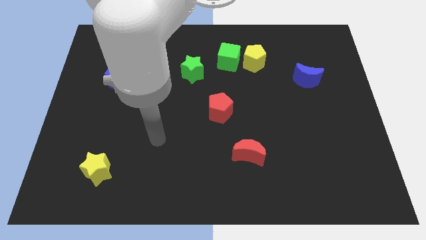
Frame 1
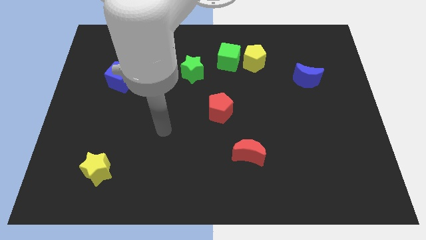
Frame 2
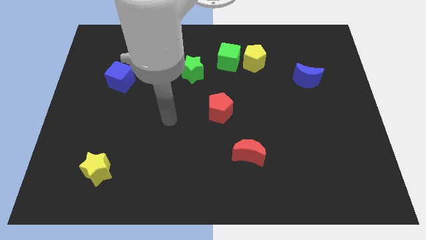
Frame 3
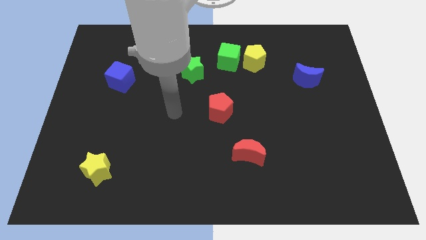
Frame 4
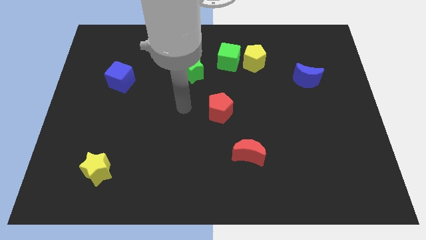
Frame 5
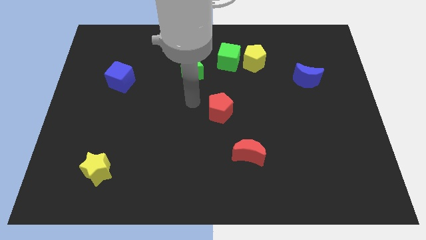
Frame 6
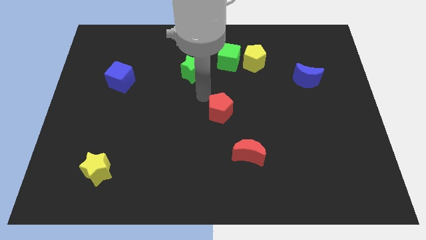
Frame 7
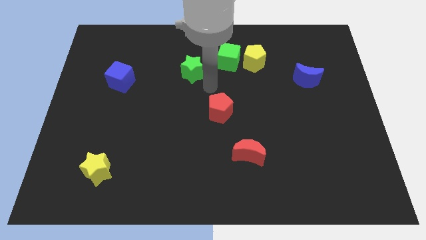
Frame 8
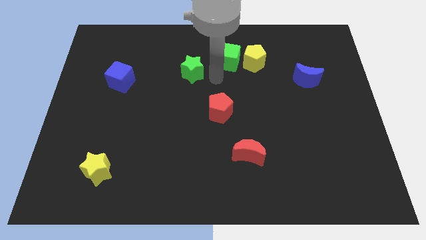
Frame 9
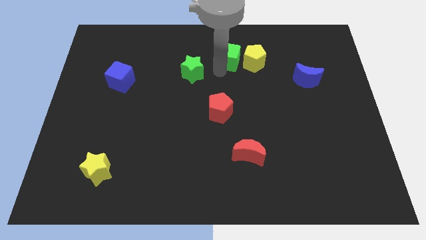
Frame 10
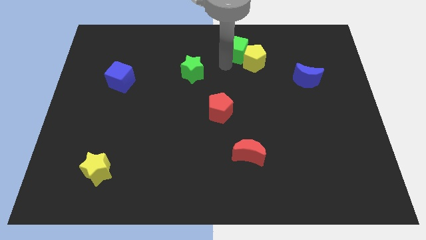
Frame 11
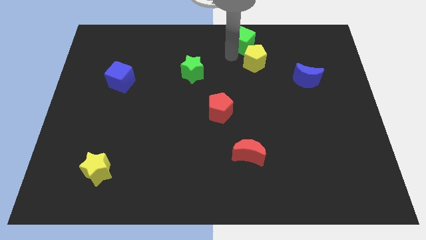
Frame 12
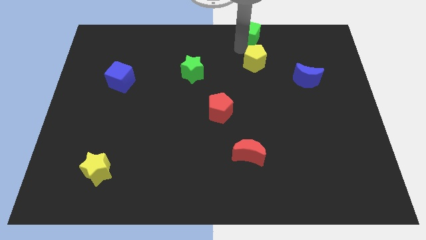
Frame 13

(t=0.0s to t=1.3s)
pull the yellow pentagon apart from the green cube

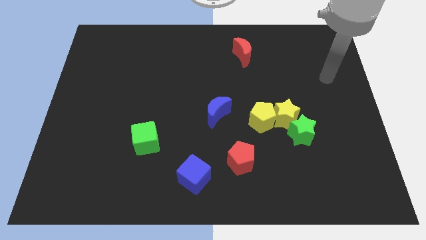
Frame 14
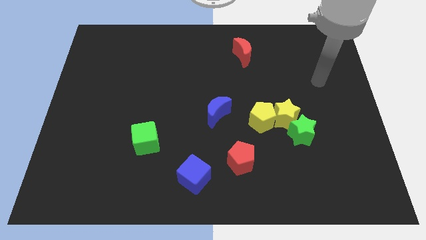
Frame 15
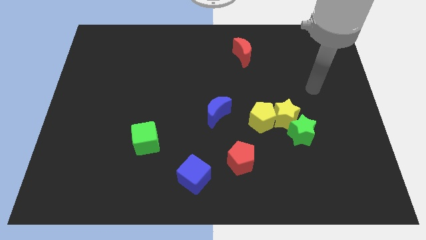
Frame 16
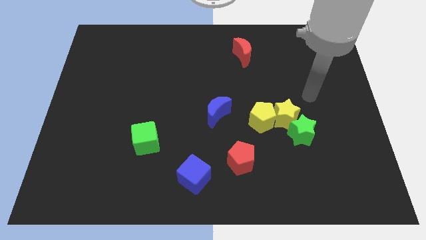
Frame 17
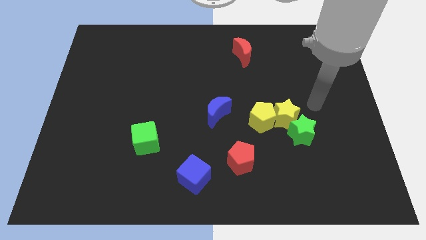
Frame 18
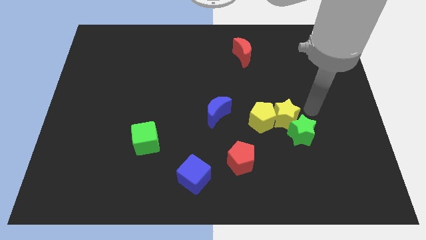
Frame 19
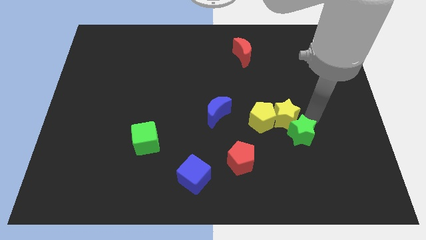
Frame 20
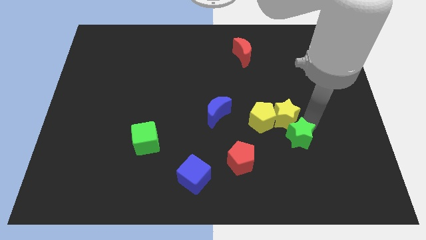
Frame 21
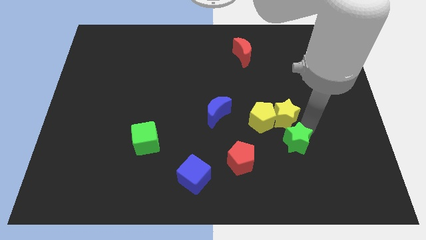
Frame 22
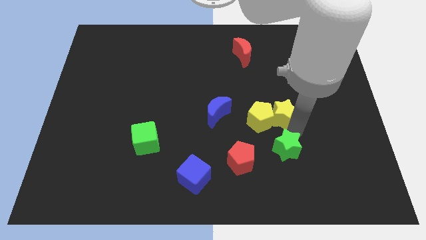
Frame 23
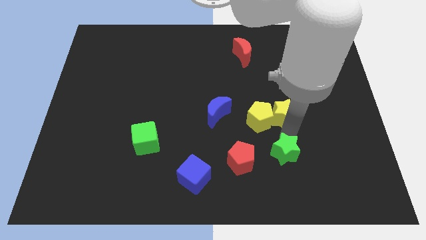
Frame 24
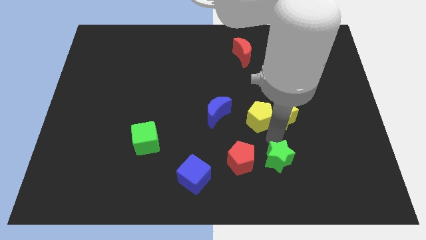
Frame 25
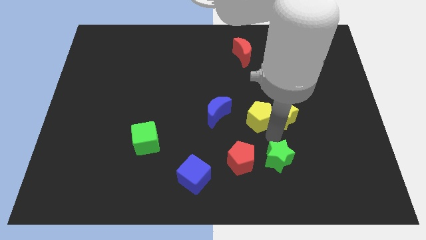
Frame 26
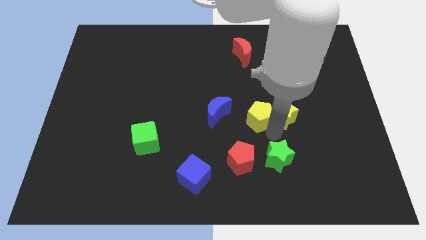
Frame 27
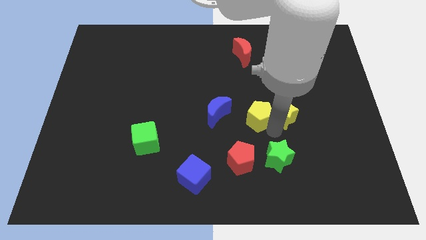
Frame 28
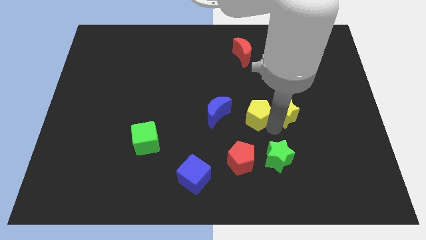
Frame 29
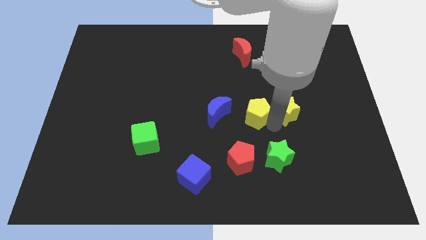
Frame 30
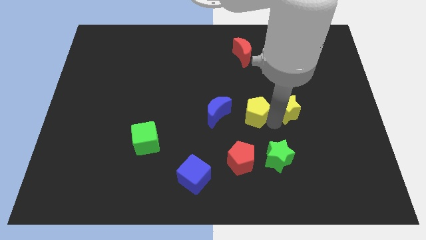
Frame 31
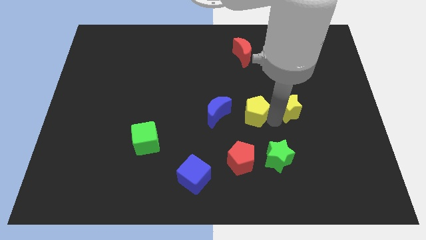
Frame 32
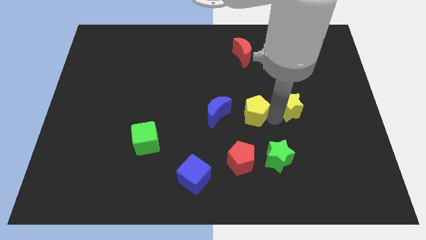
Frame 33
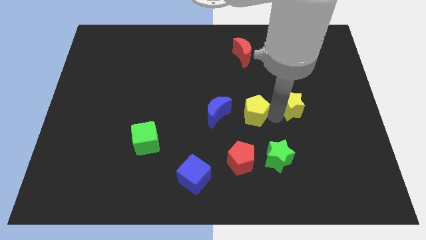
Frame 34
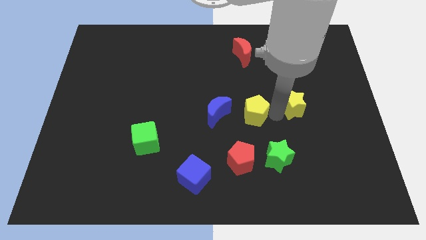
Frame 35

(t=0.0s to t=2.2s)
separate the yellow star from the green star and yellow pentagon

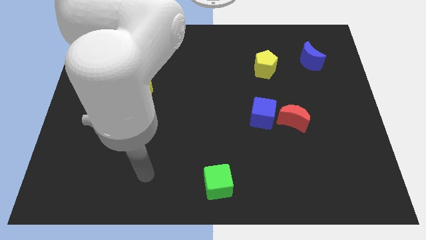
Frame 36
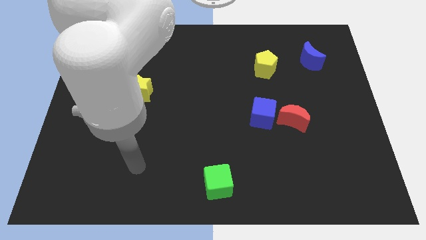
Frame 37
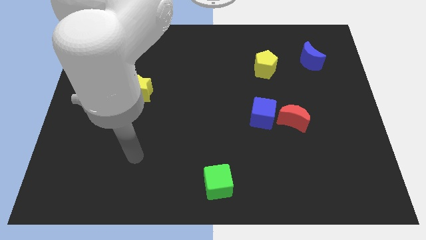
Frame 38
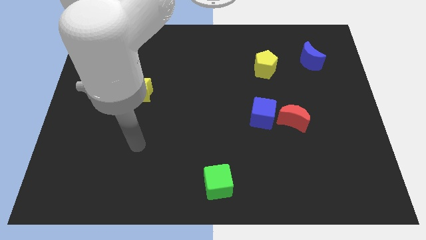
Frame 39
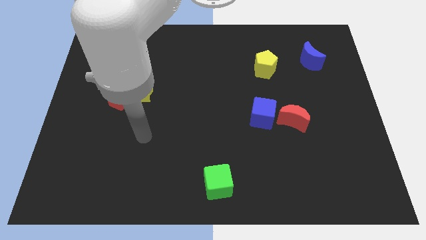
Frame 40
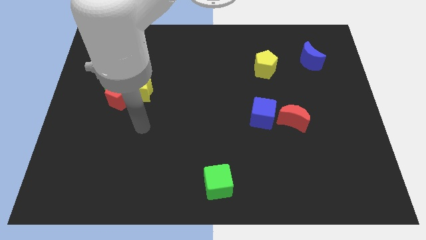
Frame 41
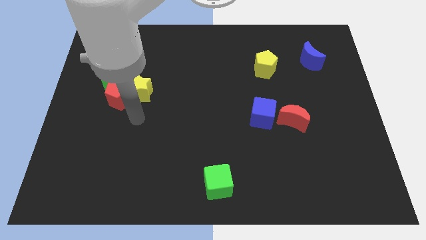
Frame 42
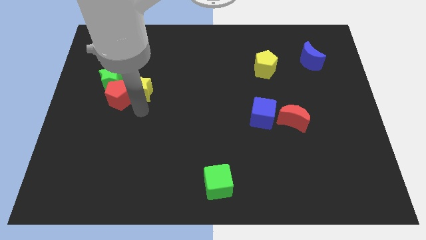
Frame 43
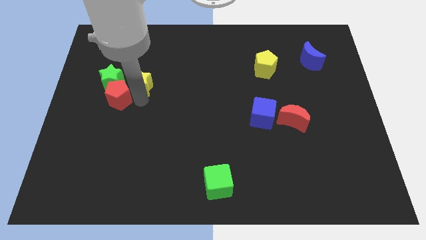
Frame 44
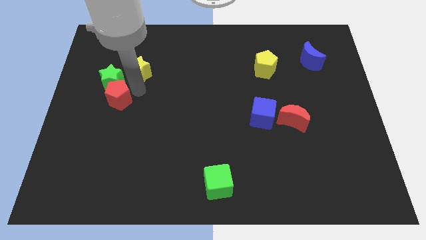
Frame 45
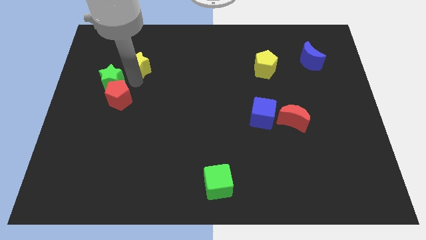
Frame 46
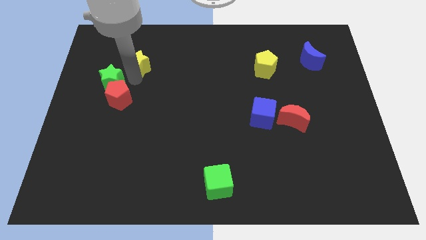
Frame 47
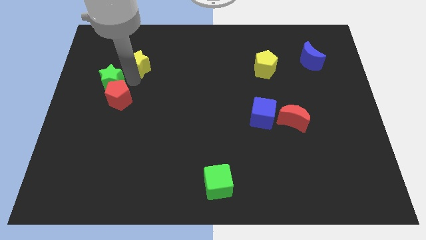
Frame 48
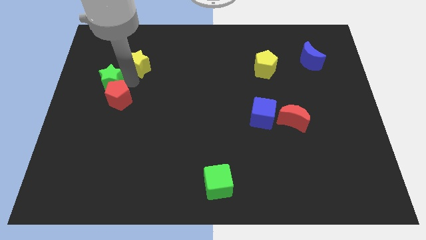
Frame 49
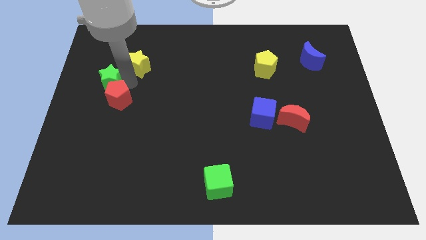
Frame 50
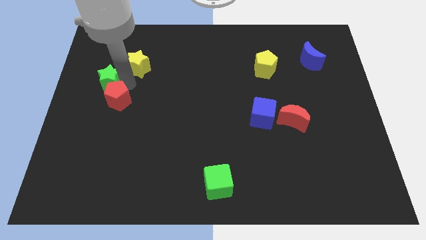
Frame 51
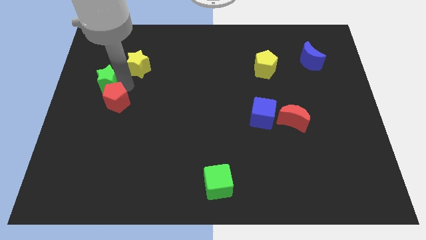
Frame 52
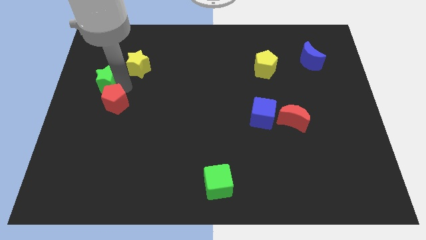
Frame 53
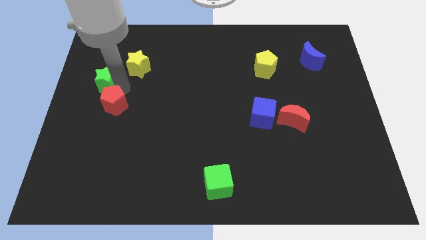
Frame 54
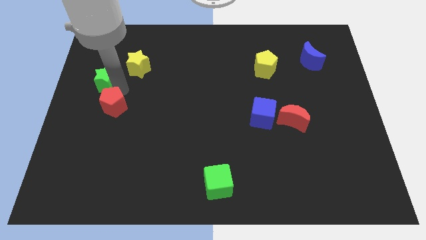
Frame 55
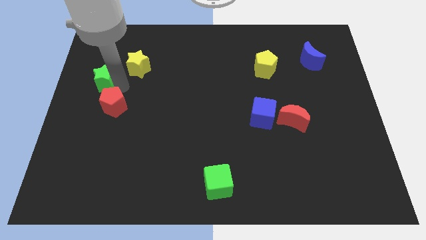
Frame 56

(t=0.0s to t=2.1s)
pull the red pentagon apart from the yellow star and green star

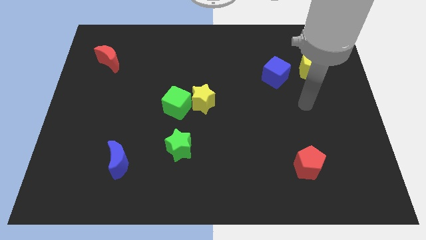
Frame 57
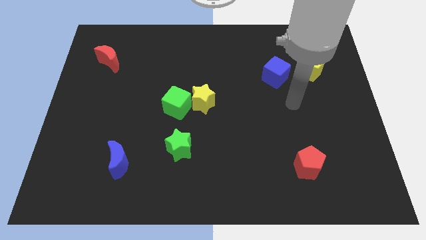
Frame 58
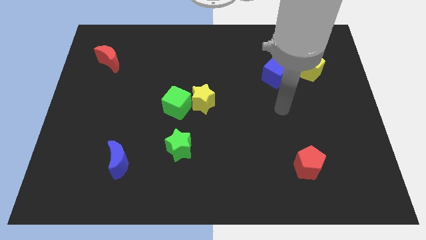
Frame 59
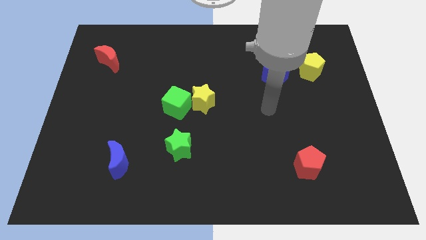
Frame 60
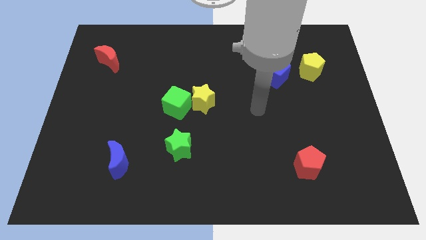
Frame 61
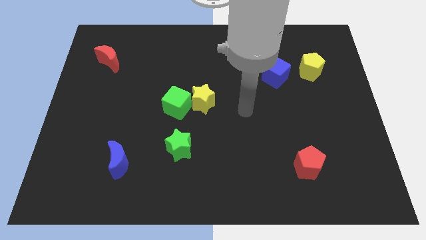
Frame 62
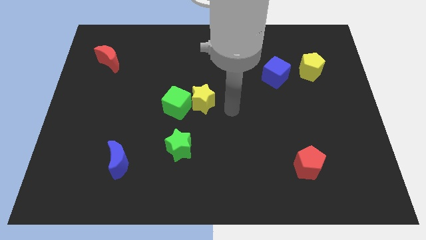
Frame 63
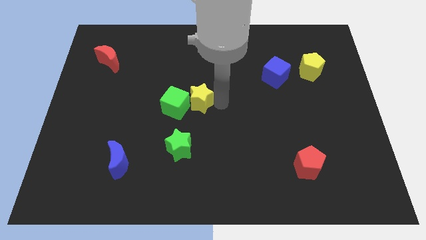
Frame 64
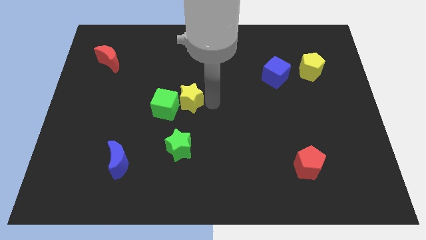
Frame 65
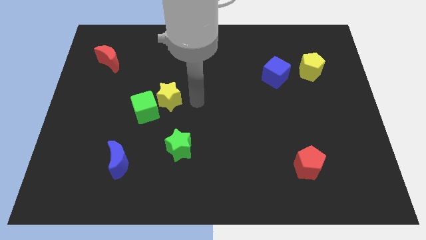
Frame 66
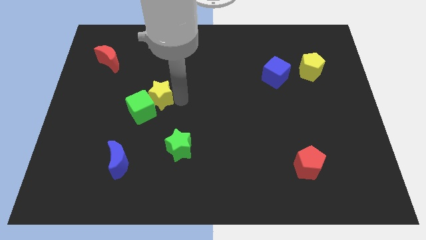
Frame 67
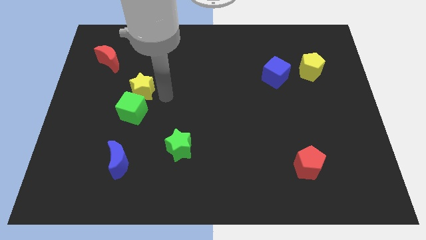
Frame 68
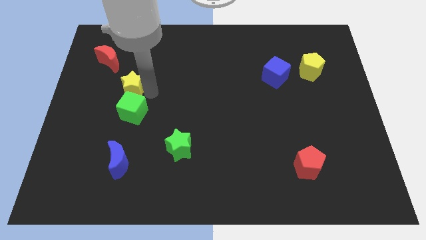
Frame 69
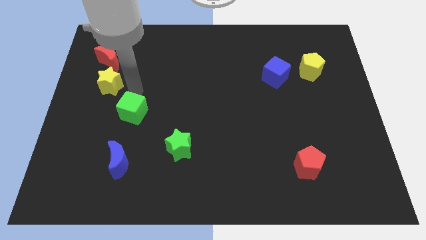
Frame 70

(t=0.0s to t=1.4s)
move the green cube away from the yellow star

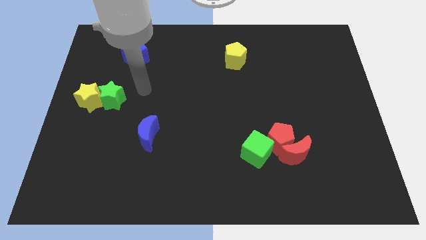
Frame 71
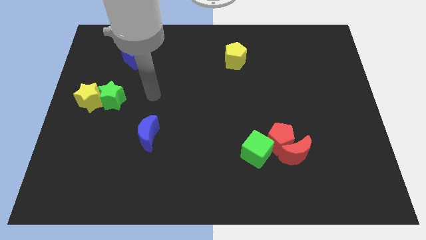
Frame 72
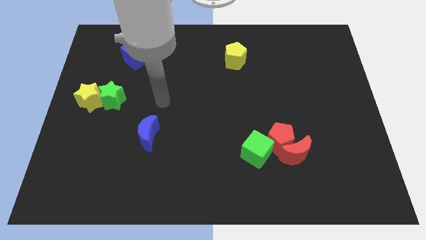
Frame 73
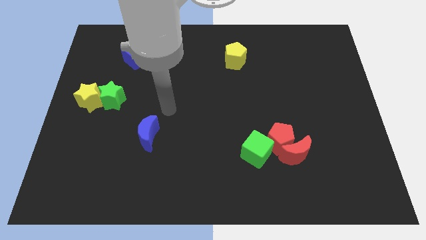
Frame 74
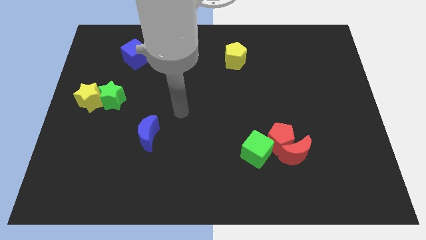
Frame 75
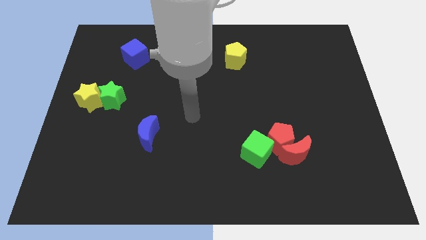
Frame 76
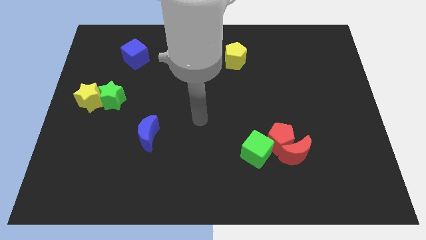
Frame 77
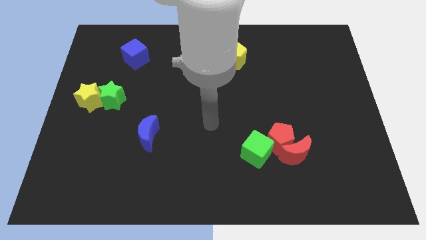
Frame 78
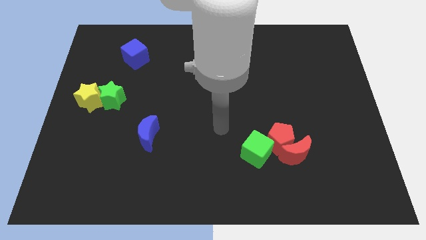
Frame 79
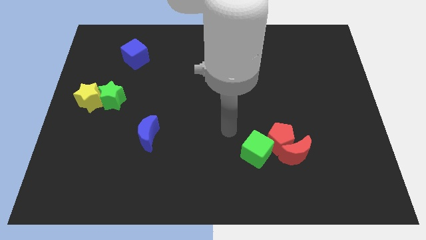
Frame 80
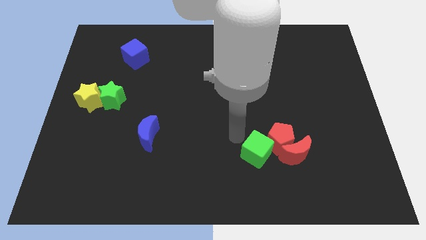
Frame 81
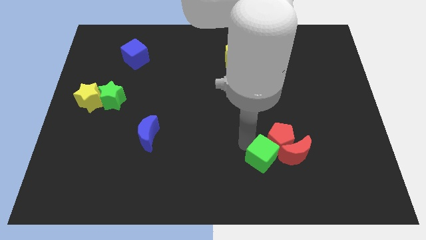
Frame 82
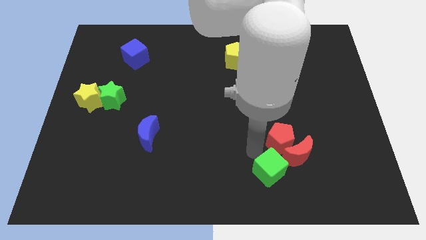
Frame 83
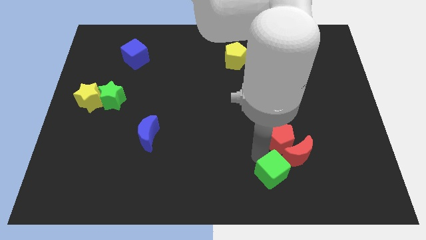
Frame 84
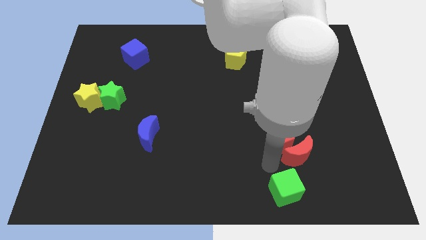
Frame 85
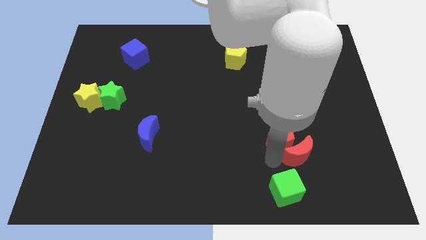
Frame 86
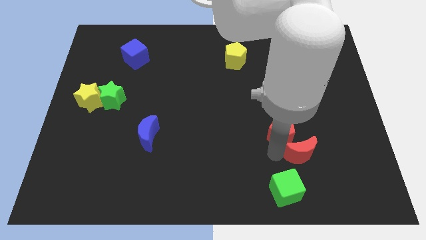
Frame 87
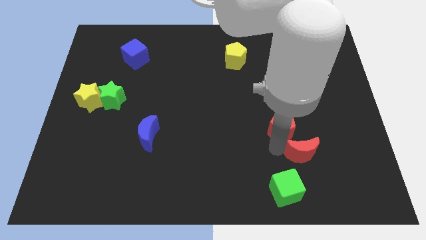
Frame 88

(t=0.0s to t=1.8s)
move the red pentagon away from the red moon and green cube

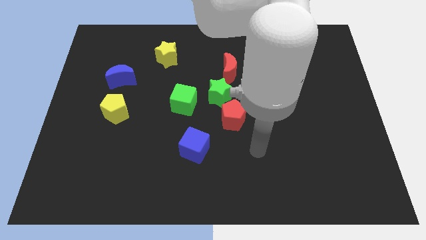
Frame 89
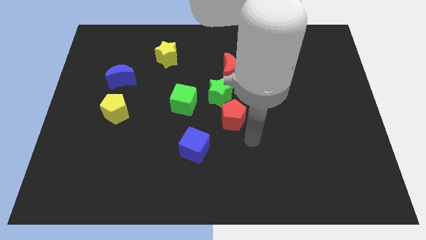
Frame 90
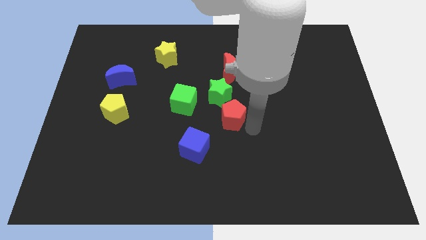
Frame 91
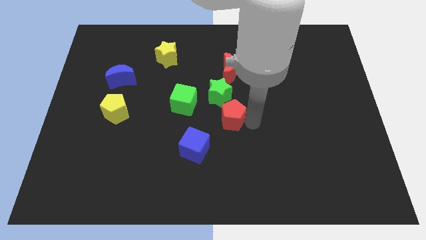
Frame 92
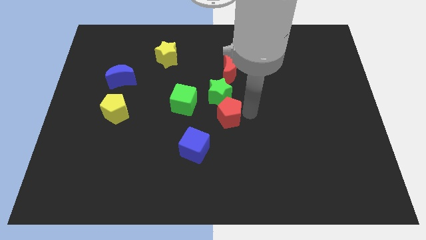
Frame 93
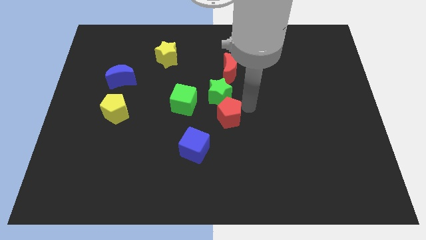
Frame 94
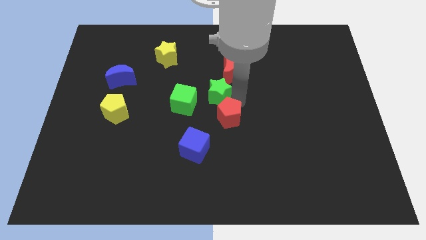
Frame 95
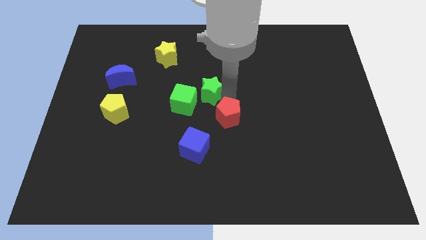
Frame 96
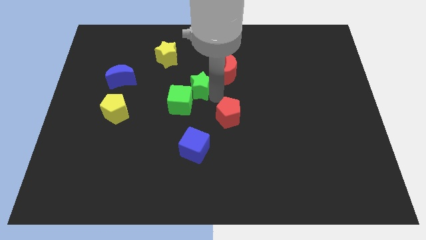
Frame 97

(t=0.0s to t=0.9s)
move the red pentagon away from the green star
